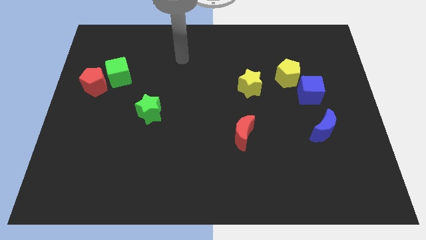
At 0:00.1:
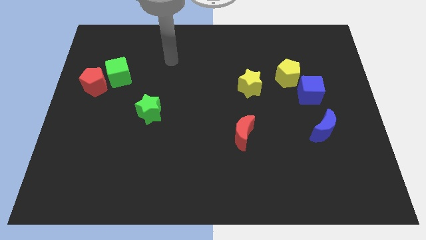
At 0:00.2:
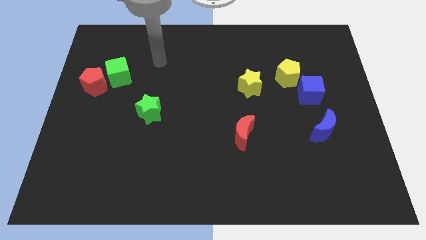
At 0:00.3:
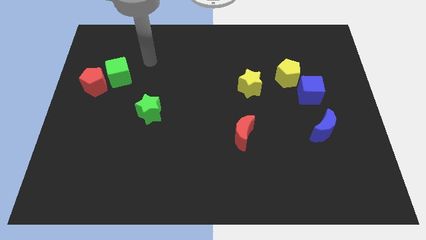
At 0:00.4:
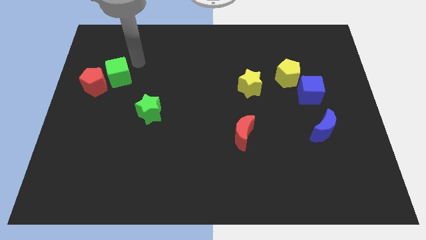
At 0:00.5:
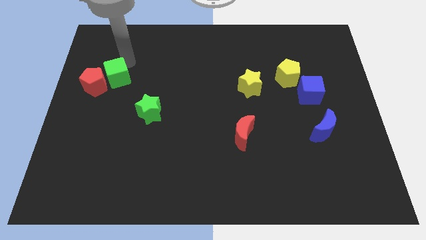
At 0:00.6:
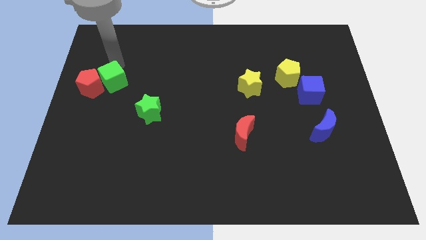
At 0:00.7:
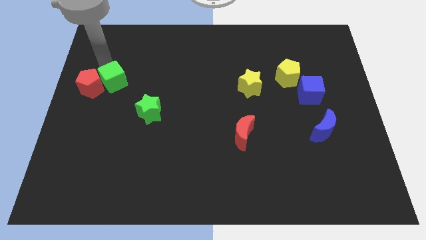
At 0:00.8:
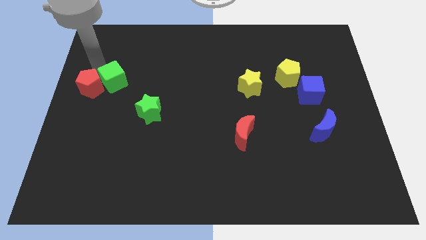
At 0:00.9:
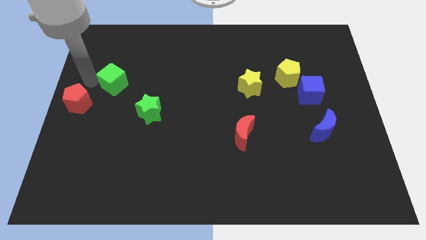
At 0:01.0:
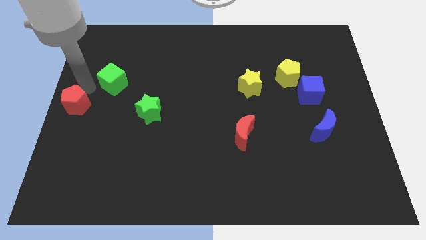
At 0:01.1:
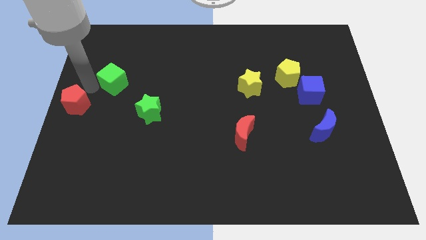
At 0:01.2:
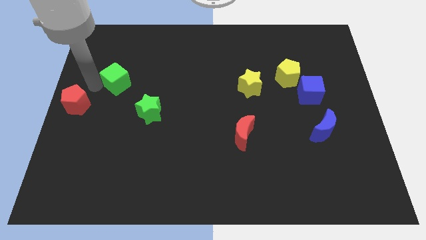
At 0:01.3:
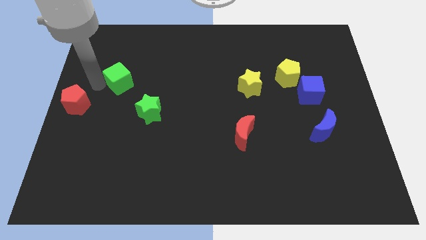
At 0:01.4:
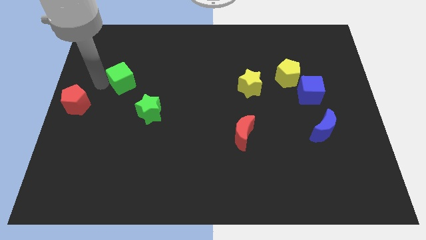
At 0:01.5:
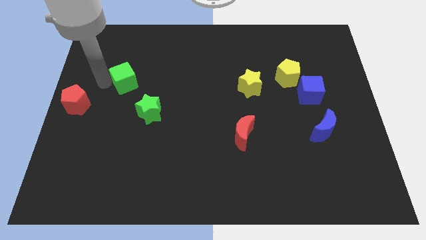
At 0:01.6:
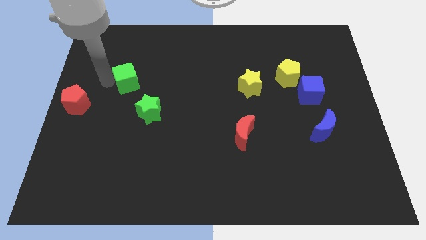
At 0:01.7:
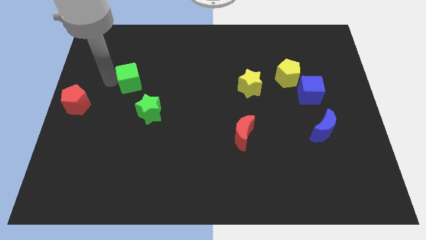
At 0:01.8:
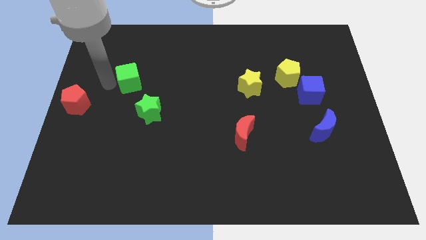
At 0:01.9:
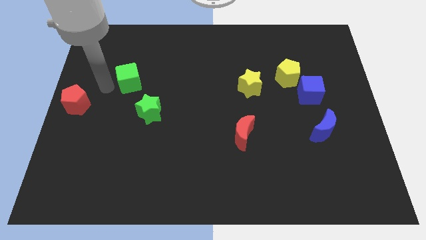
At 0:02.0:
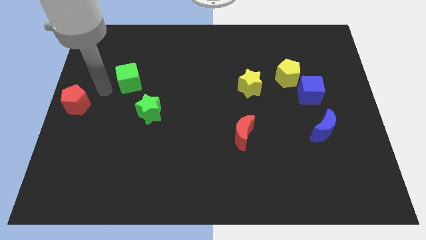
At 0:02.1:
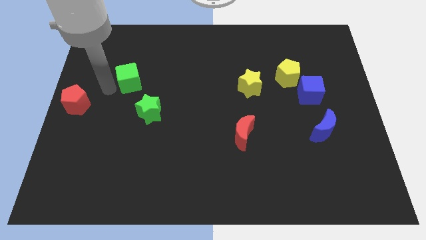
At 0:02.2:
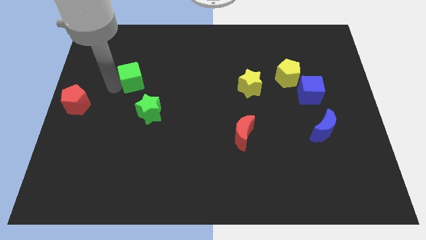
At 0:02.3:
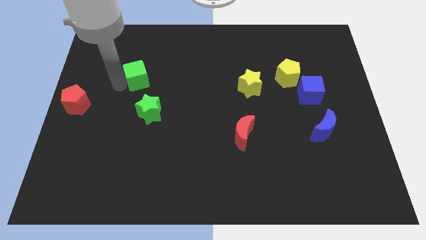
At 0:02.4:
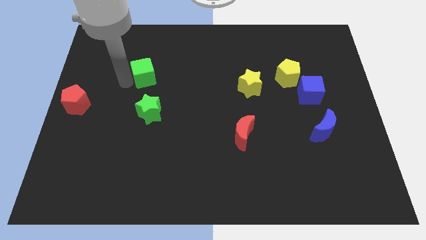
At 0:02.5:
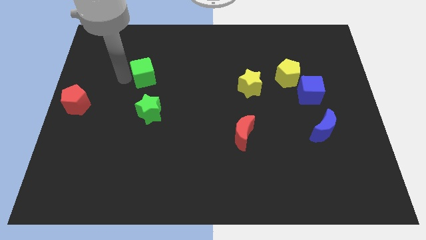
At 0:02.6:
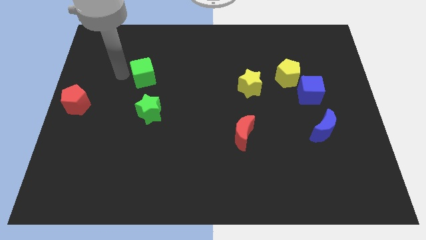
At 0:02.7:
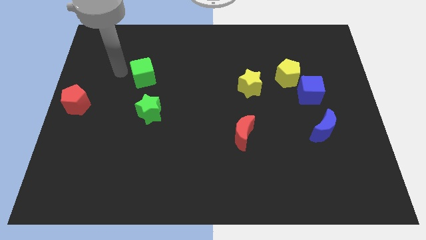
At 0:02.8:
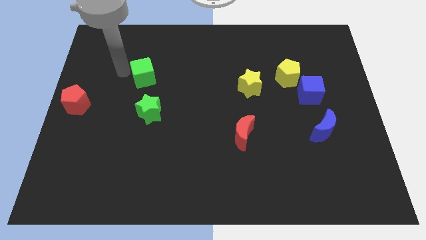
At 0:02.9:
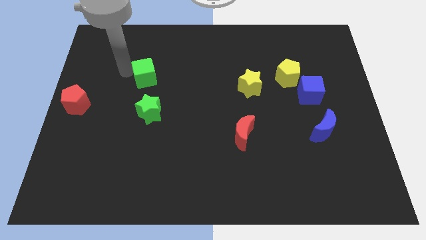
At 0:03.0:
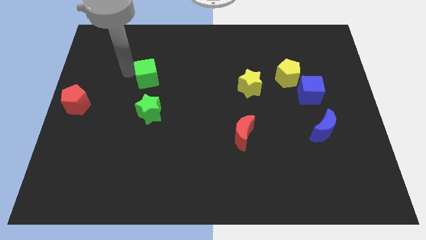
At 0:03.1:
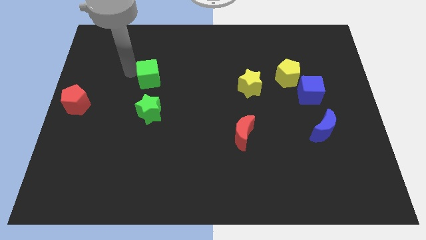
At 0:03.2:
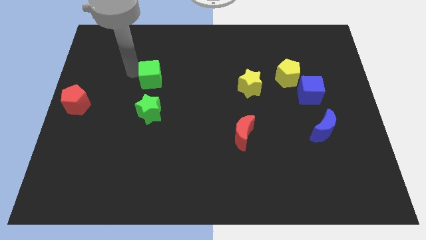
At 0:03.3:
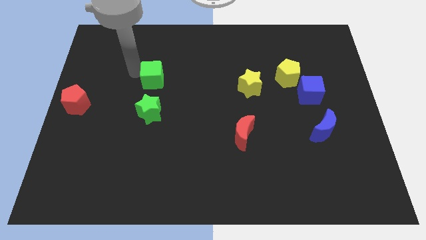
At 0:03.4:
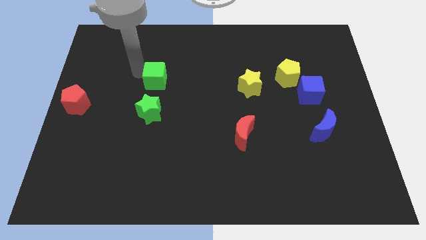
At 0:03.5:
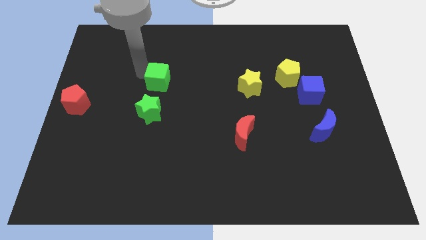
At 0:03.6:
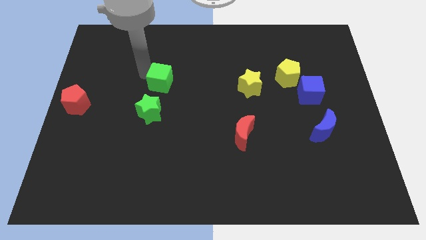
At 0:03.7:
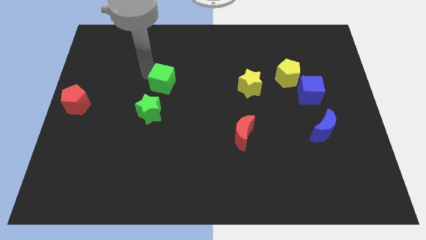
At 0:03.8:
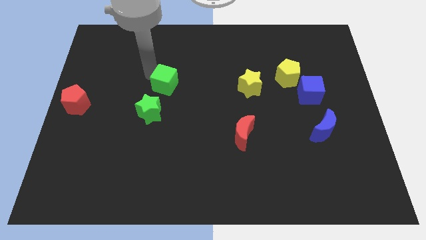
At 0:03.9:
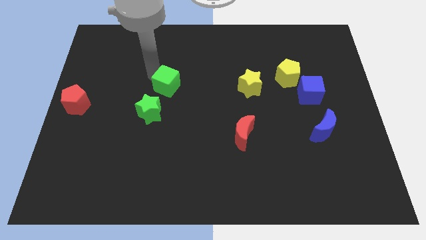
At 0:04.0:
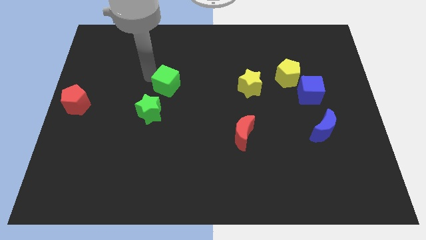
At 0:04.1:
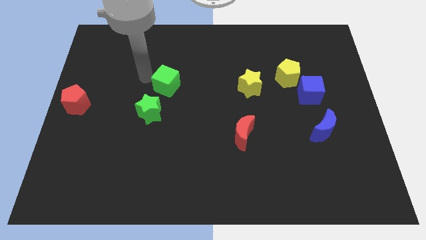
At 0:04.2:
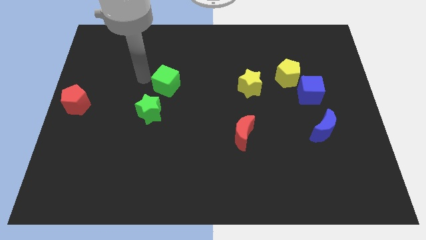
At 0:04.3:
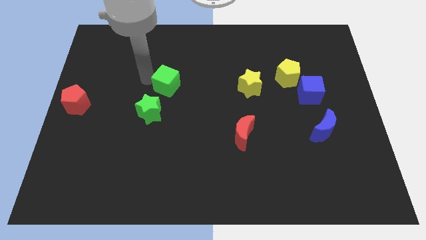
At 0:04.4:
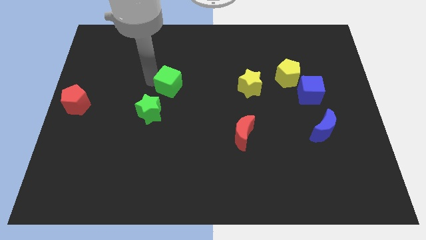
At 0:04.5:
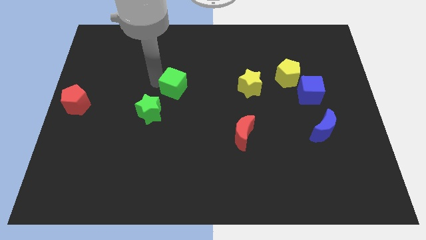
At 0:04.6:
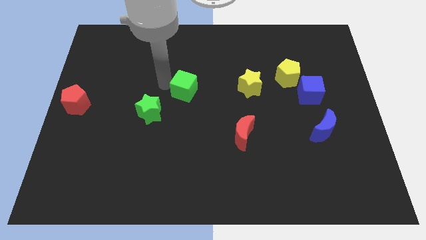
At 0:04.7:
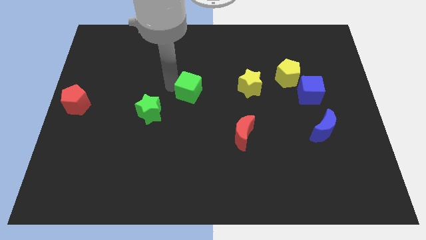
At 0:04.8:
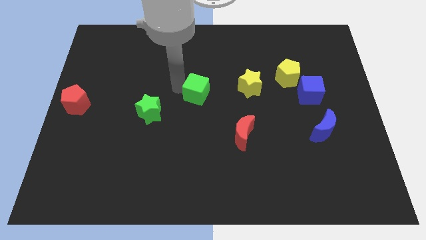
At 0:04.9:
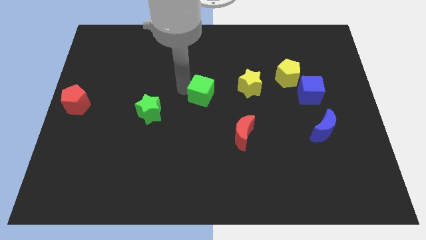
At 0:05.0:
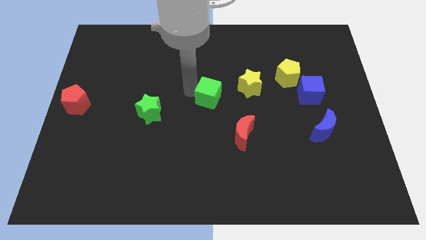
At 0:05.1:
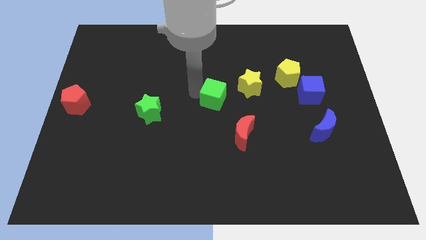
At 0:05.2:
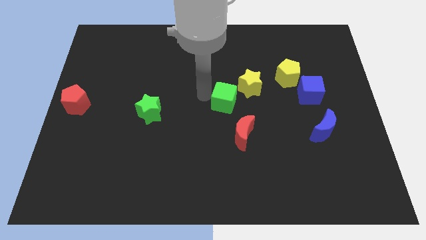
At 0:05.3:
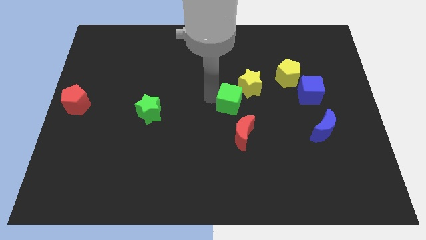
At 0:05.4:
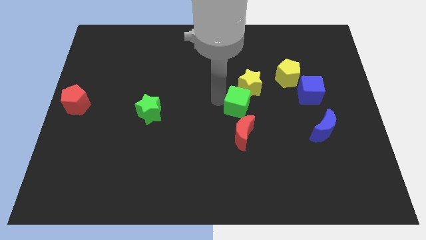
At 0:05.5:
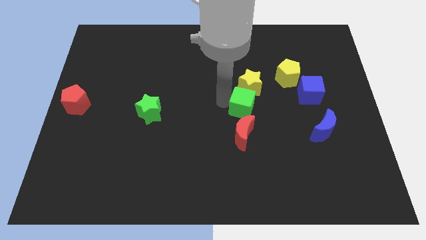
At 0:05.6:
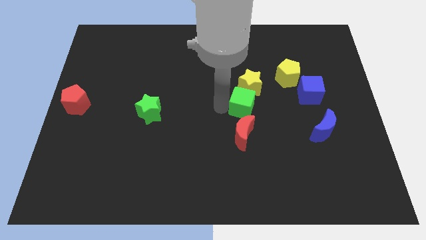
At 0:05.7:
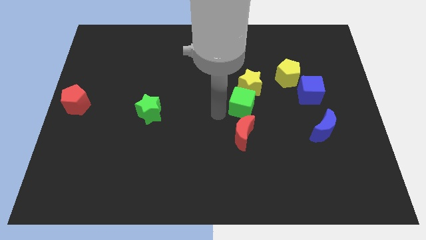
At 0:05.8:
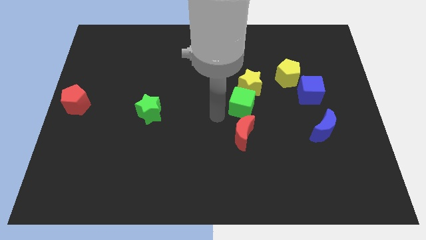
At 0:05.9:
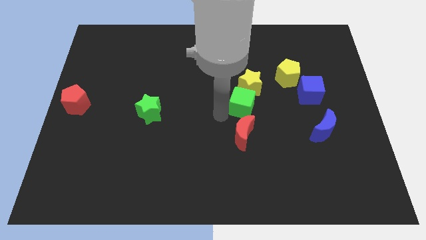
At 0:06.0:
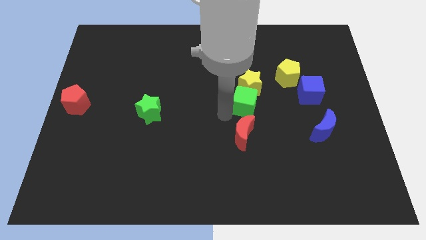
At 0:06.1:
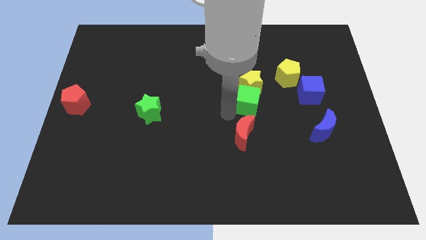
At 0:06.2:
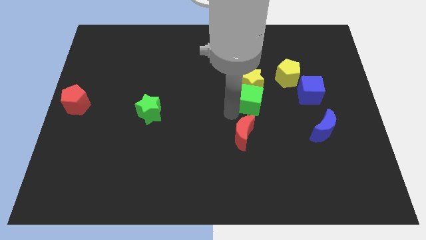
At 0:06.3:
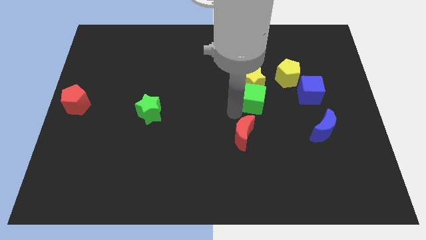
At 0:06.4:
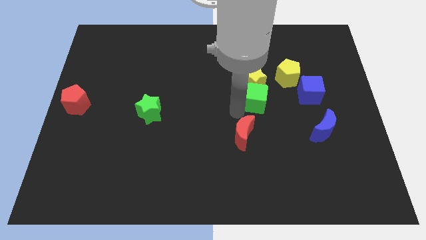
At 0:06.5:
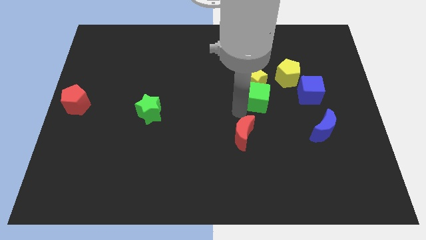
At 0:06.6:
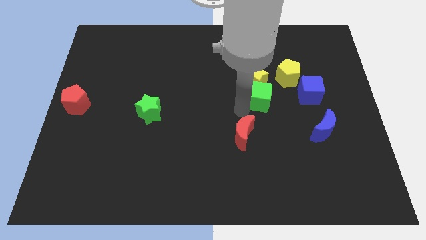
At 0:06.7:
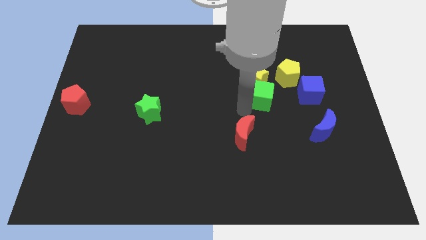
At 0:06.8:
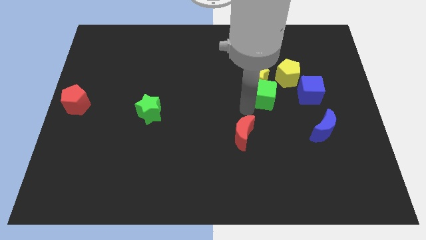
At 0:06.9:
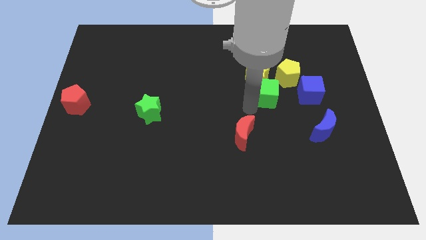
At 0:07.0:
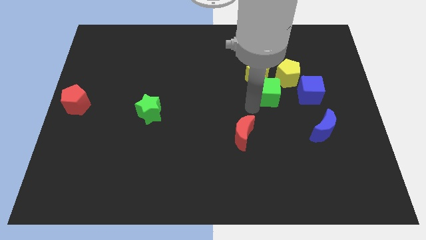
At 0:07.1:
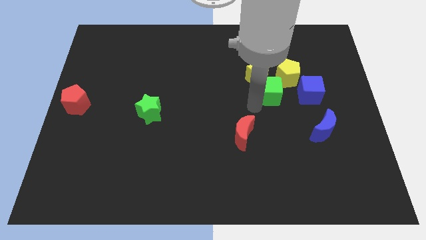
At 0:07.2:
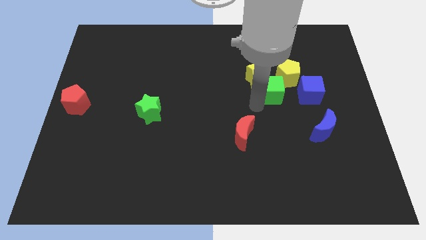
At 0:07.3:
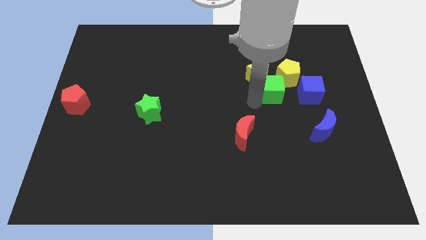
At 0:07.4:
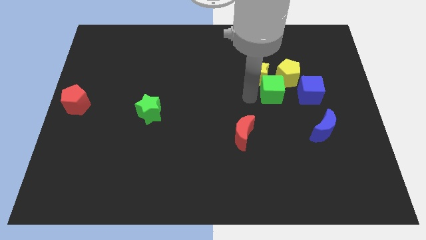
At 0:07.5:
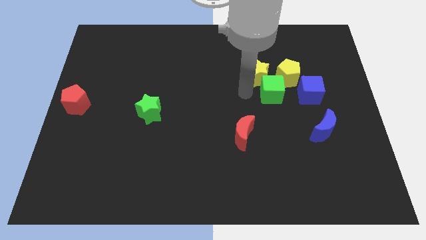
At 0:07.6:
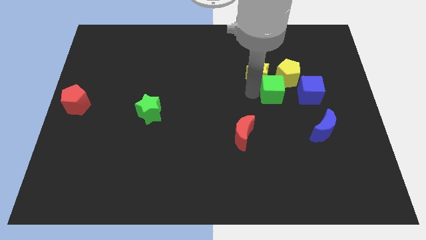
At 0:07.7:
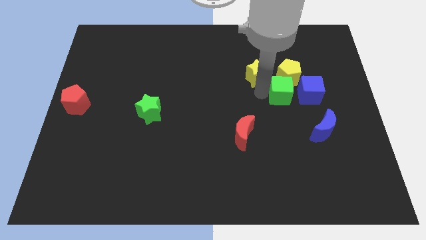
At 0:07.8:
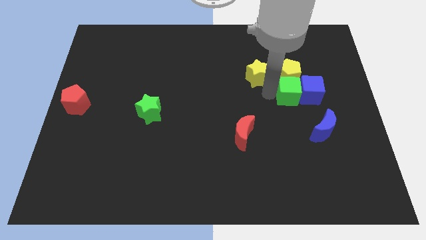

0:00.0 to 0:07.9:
move the green cube to the blue cube
